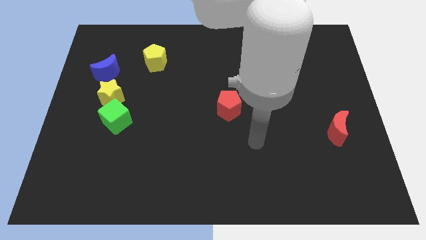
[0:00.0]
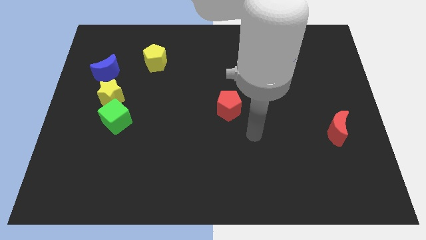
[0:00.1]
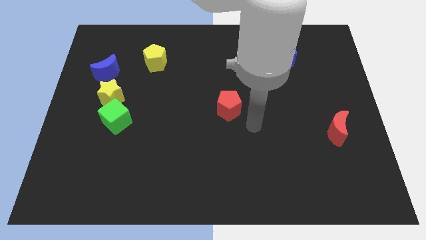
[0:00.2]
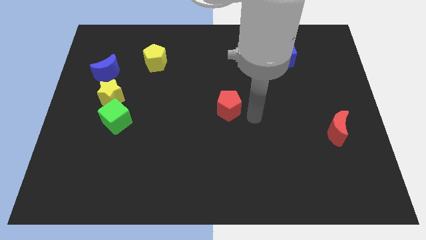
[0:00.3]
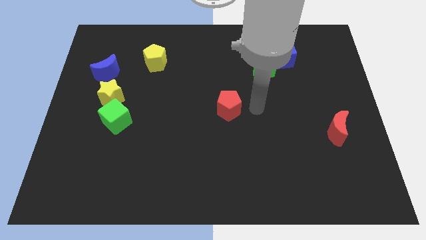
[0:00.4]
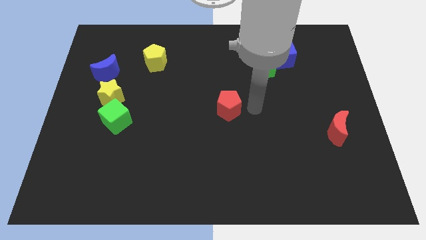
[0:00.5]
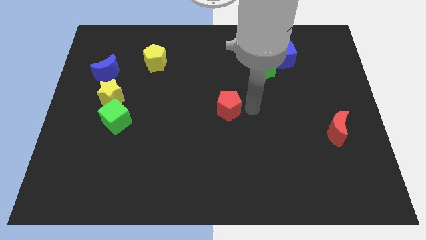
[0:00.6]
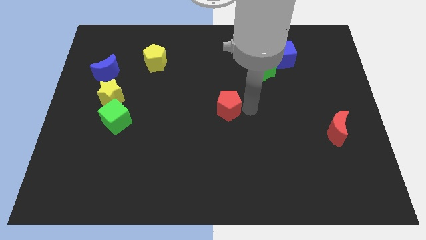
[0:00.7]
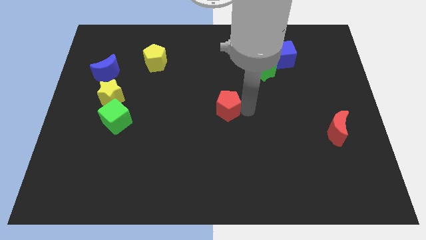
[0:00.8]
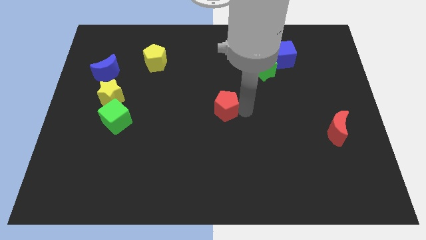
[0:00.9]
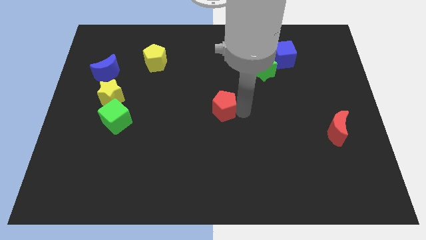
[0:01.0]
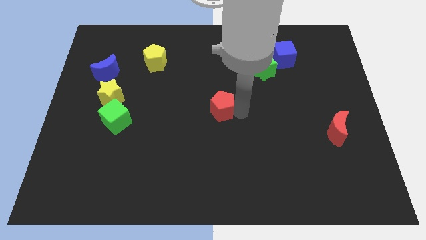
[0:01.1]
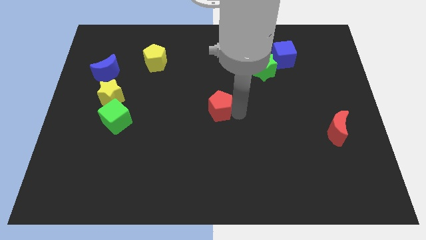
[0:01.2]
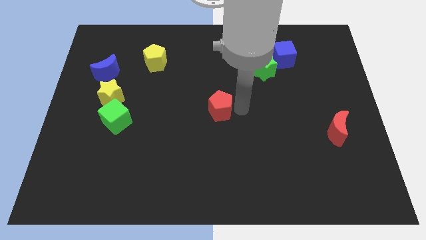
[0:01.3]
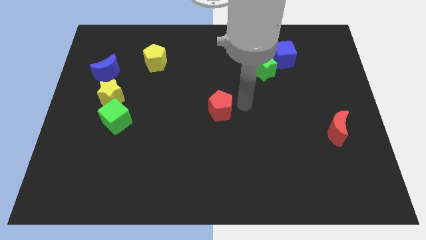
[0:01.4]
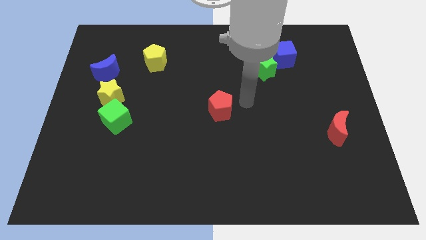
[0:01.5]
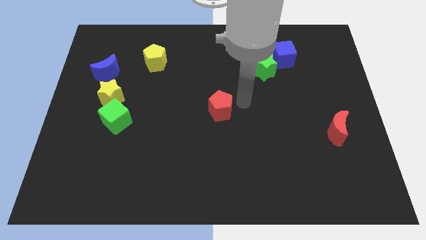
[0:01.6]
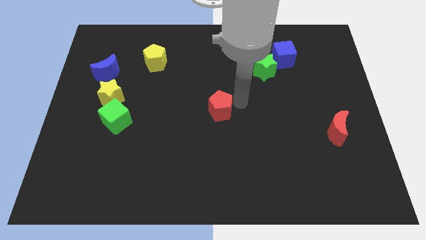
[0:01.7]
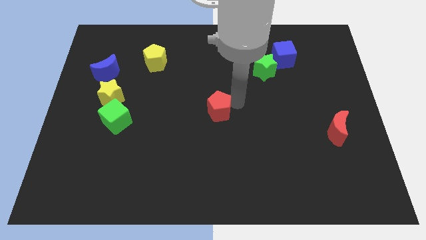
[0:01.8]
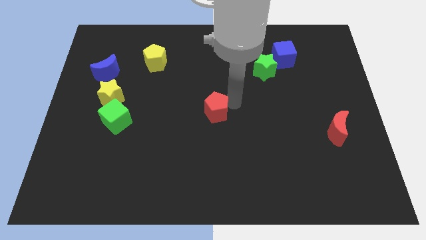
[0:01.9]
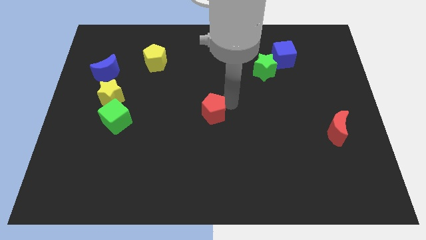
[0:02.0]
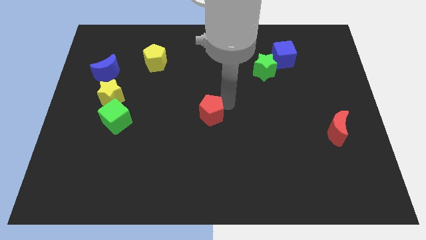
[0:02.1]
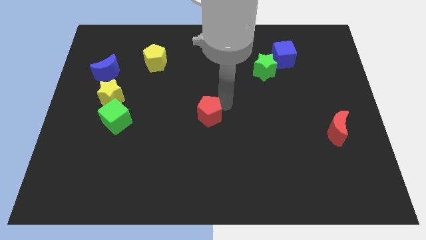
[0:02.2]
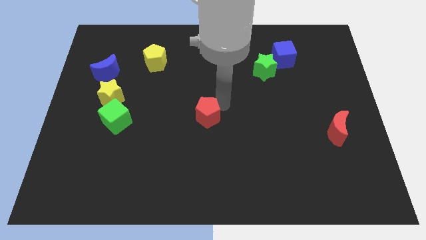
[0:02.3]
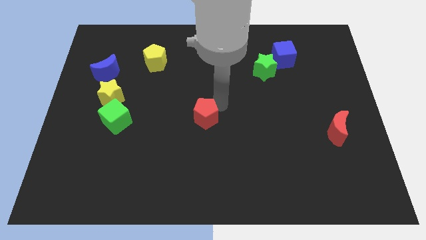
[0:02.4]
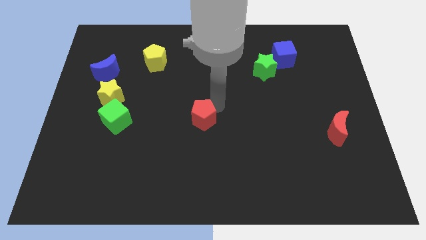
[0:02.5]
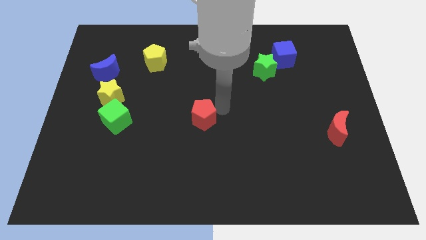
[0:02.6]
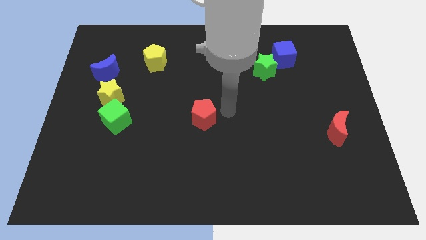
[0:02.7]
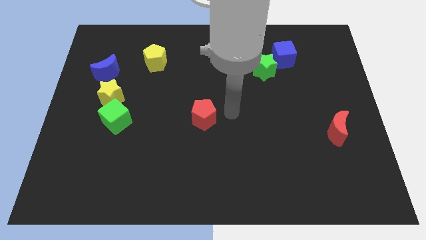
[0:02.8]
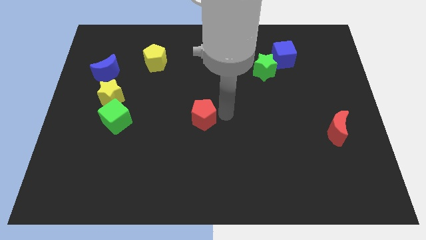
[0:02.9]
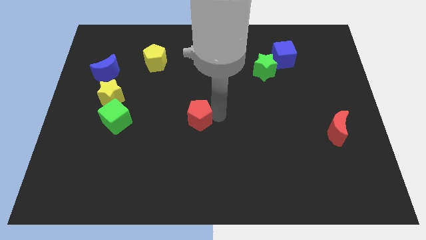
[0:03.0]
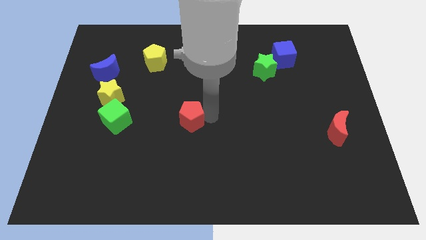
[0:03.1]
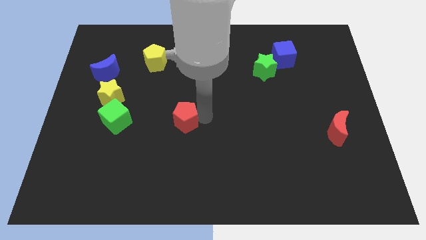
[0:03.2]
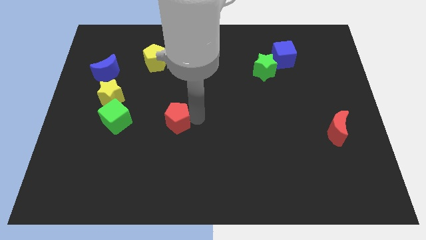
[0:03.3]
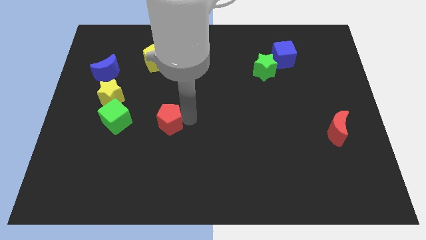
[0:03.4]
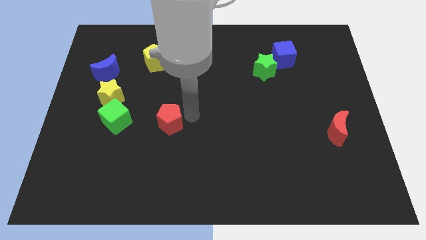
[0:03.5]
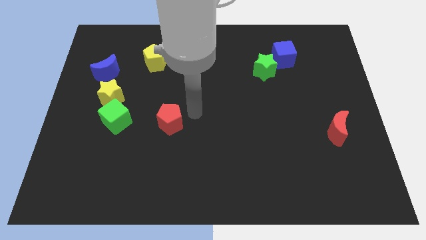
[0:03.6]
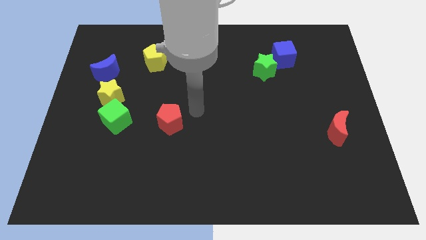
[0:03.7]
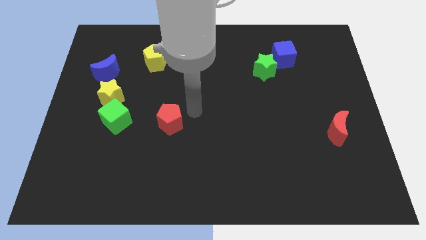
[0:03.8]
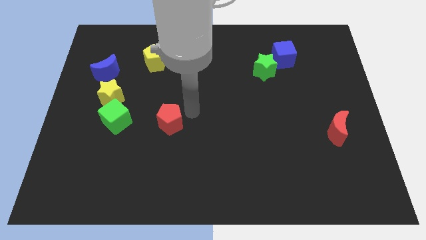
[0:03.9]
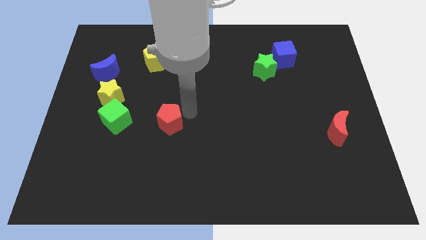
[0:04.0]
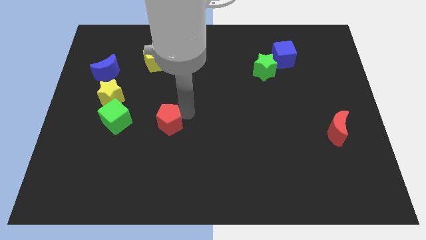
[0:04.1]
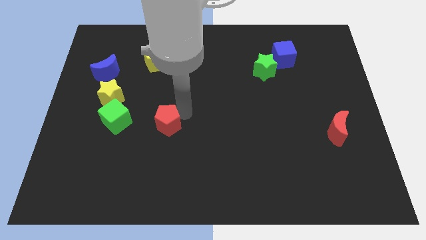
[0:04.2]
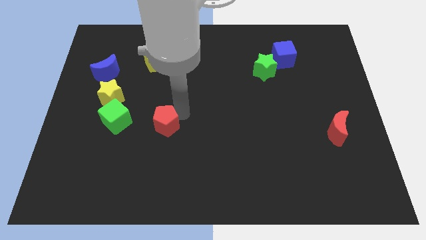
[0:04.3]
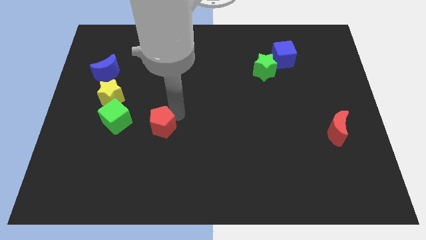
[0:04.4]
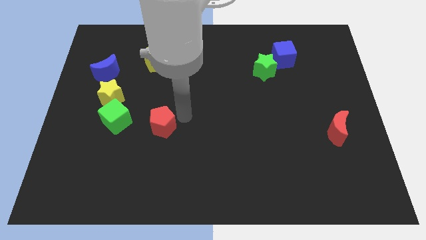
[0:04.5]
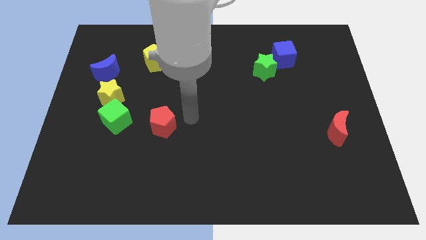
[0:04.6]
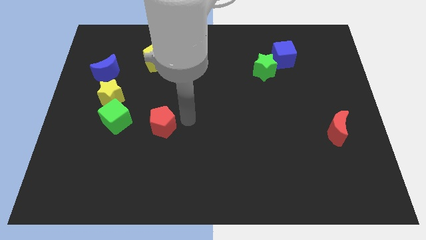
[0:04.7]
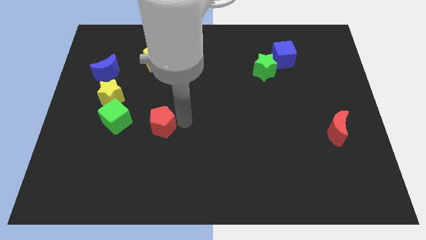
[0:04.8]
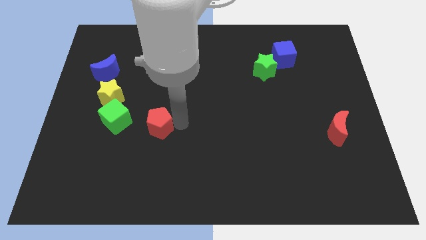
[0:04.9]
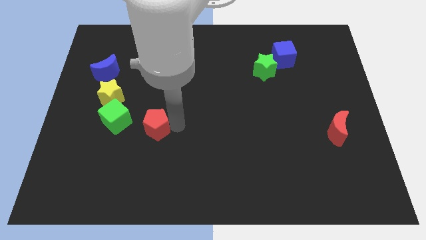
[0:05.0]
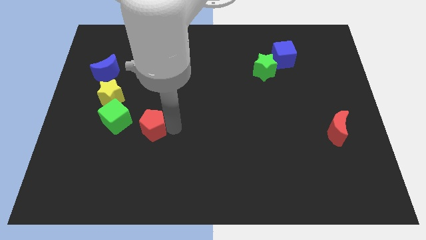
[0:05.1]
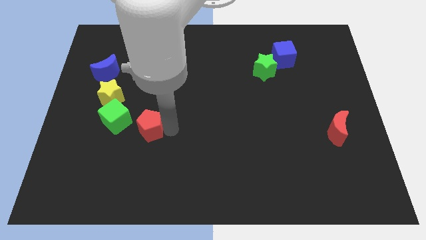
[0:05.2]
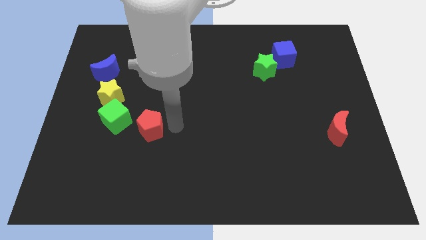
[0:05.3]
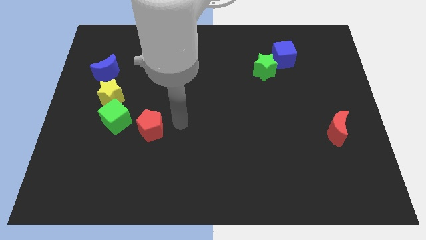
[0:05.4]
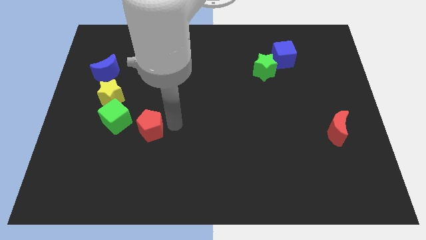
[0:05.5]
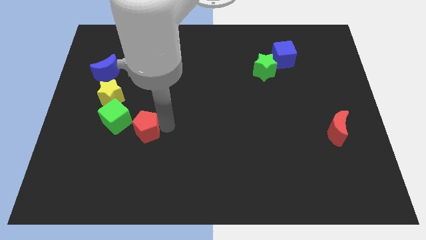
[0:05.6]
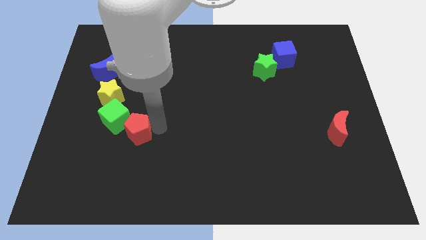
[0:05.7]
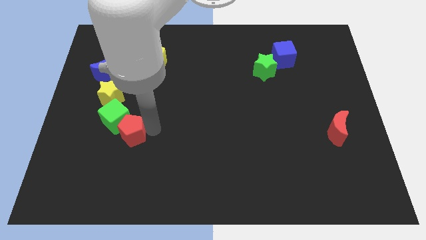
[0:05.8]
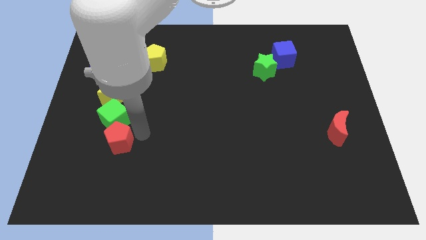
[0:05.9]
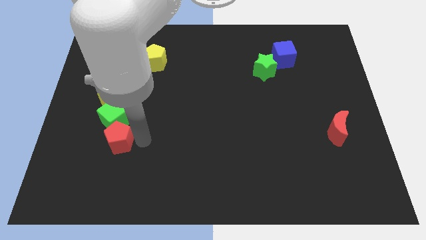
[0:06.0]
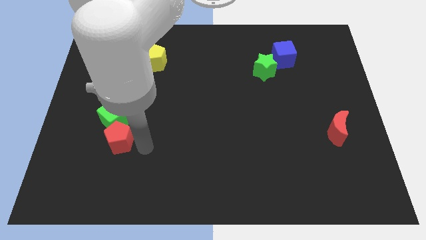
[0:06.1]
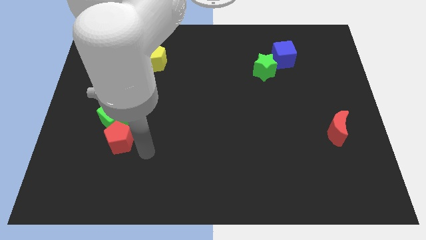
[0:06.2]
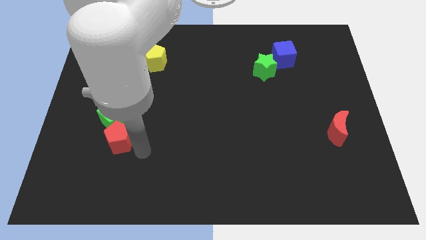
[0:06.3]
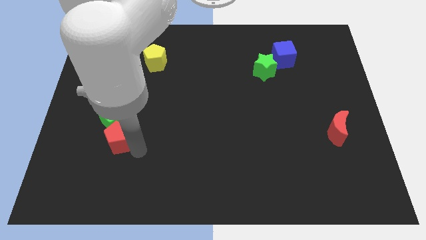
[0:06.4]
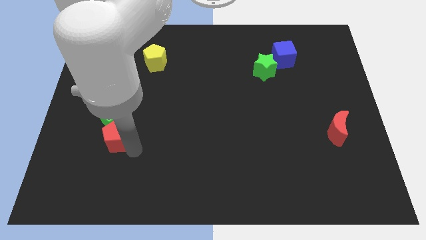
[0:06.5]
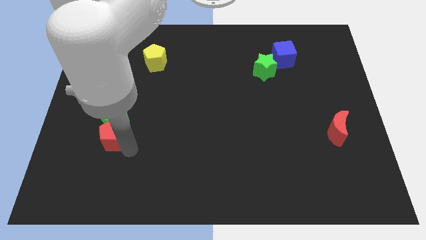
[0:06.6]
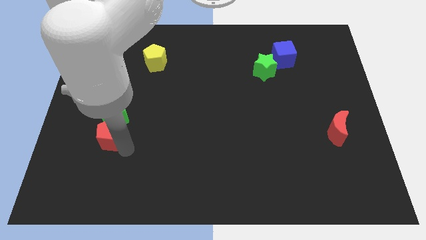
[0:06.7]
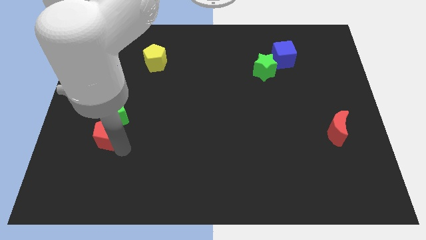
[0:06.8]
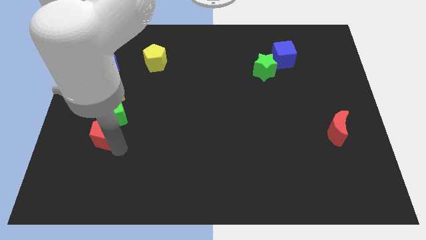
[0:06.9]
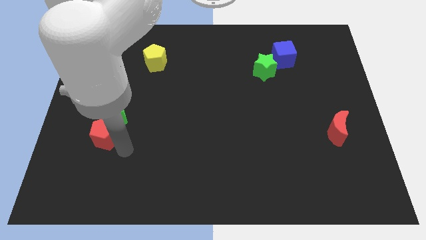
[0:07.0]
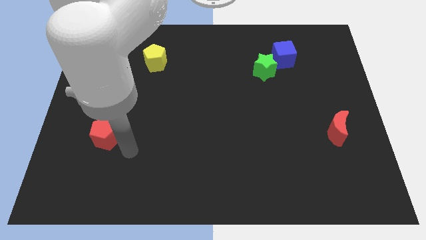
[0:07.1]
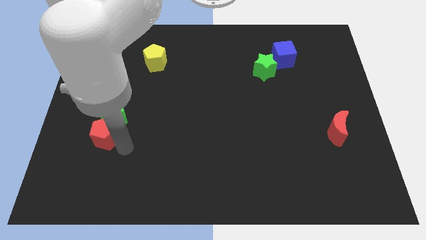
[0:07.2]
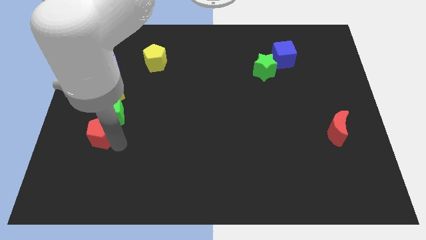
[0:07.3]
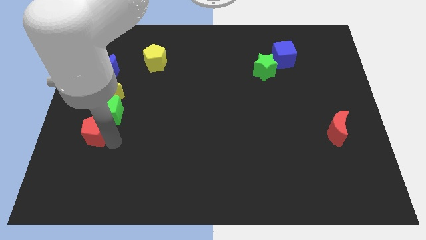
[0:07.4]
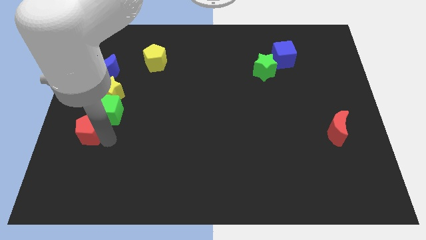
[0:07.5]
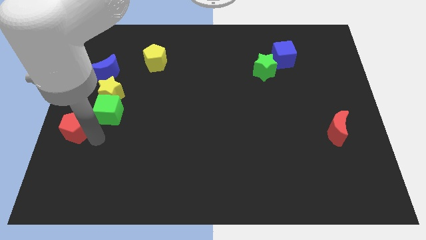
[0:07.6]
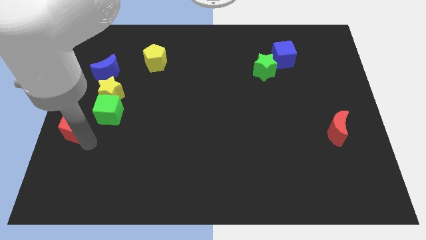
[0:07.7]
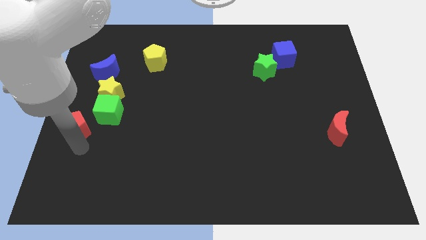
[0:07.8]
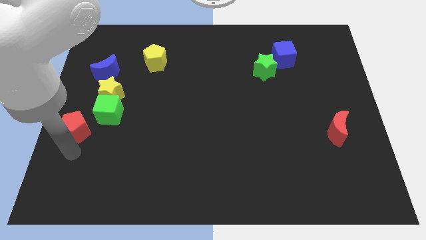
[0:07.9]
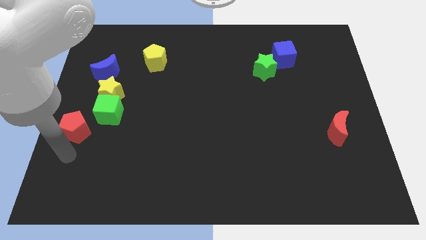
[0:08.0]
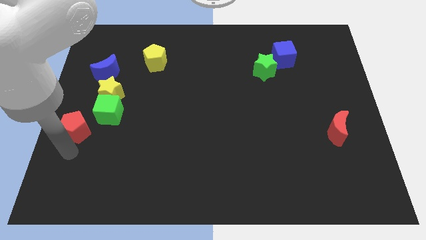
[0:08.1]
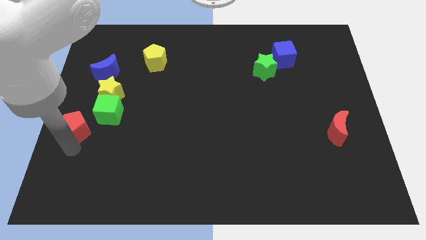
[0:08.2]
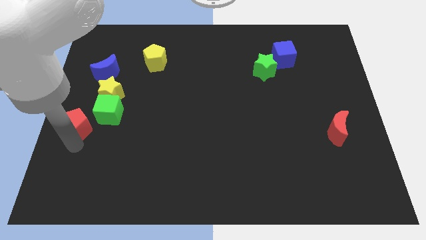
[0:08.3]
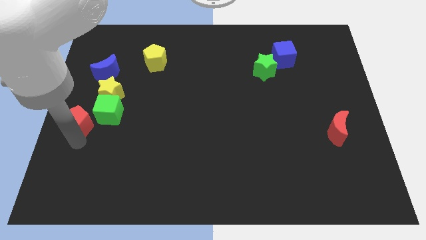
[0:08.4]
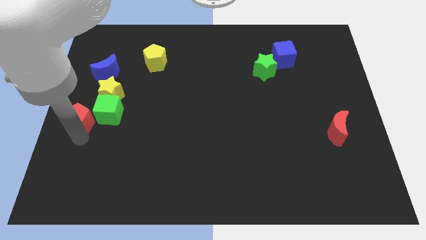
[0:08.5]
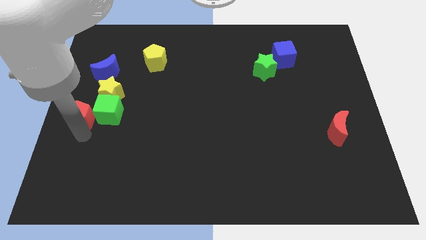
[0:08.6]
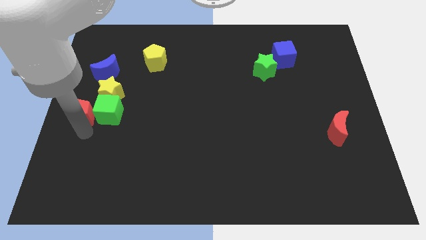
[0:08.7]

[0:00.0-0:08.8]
push the red pentagon to the top left of the green cube
